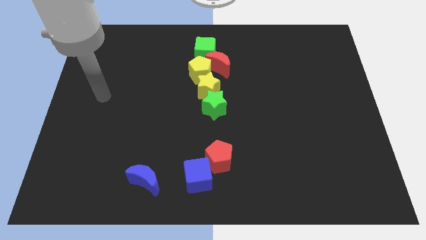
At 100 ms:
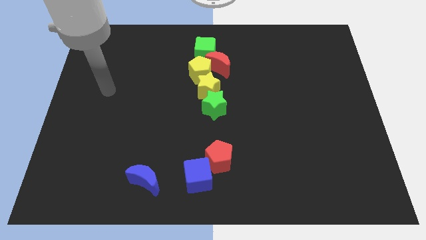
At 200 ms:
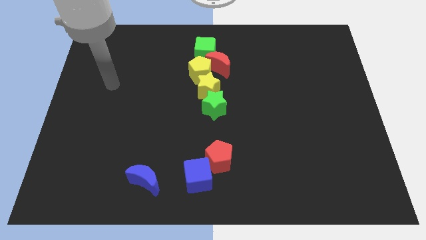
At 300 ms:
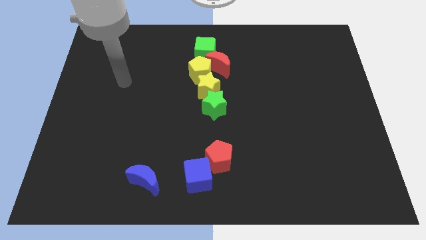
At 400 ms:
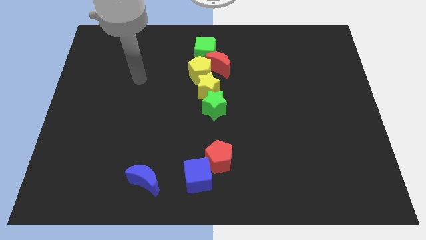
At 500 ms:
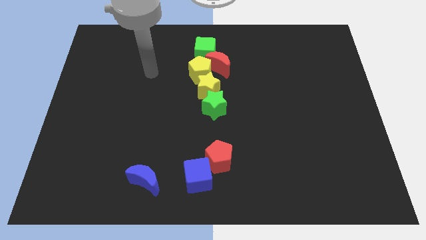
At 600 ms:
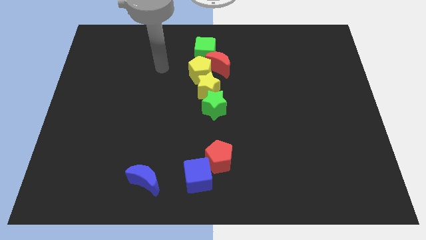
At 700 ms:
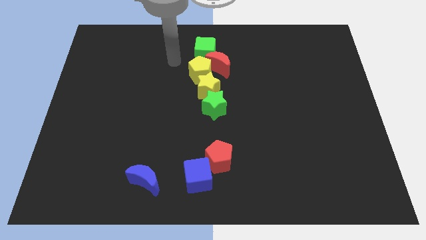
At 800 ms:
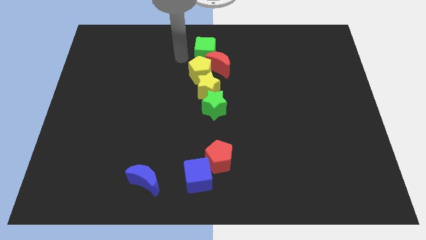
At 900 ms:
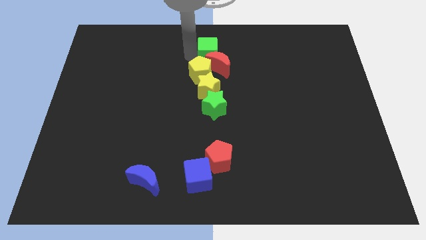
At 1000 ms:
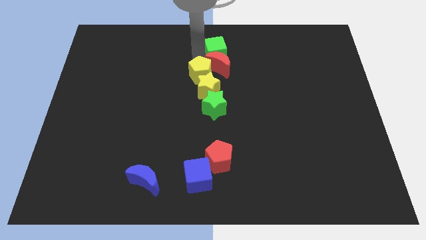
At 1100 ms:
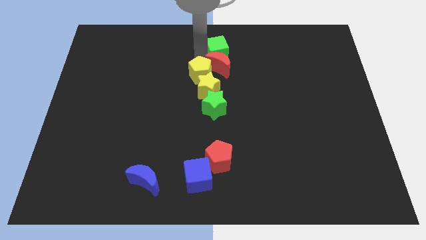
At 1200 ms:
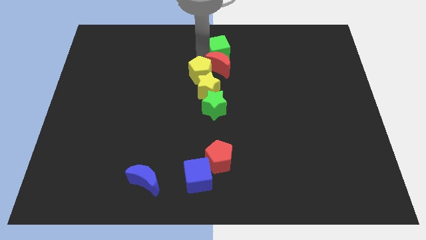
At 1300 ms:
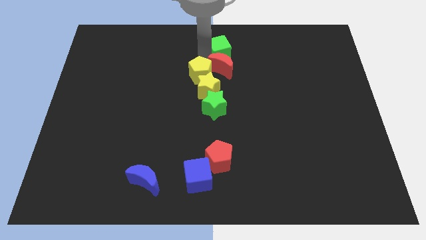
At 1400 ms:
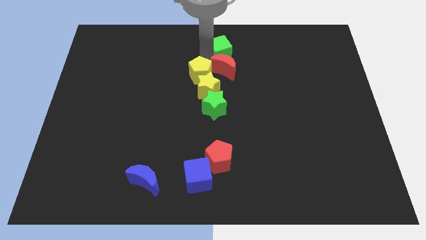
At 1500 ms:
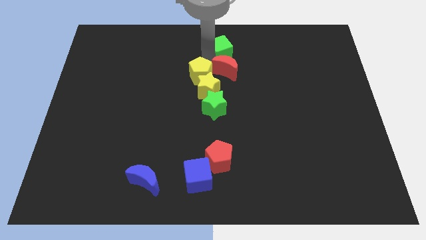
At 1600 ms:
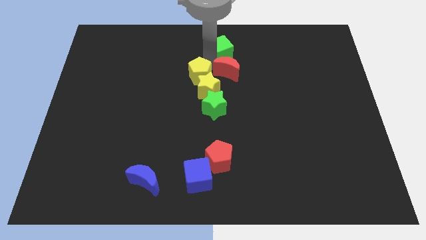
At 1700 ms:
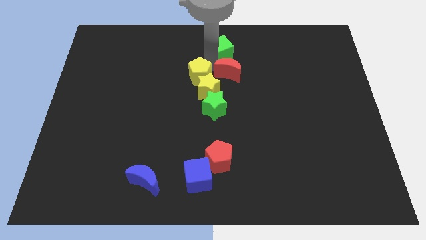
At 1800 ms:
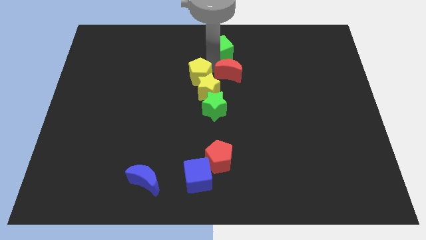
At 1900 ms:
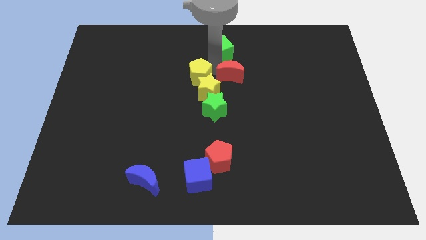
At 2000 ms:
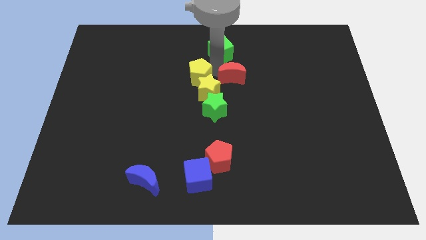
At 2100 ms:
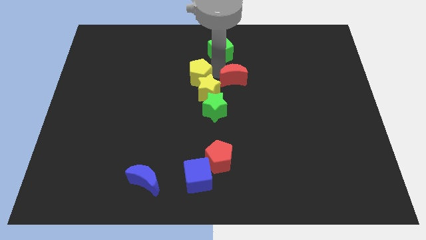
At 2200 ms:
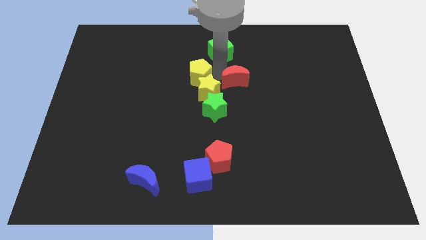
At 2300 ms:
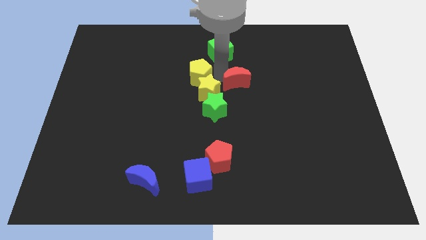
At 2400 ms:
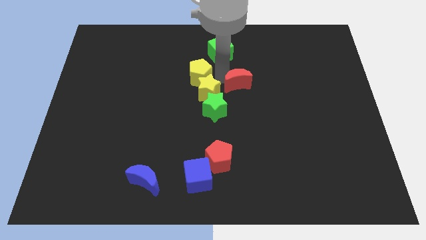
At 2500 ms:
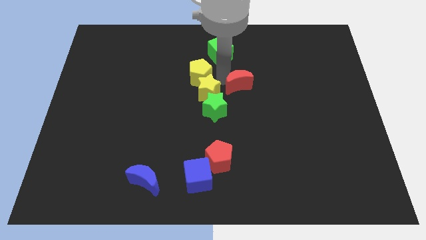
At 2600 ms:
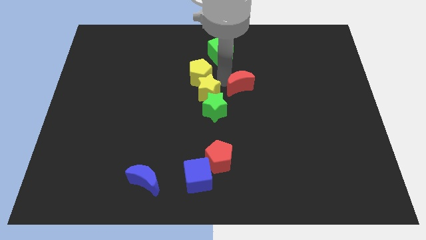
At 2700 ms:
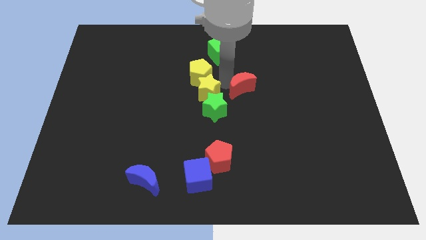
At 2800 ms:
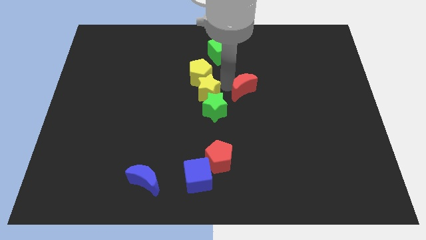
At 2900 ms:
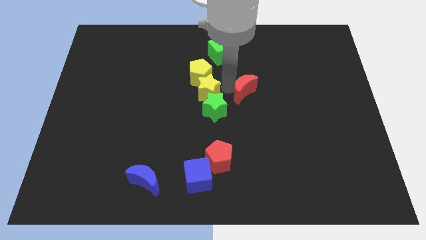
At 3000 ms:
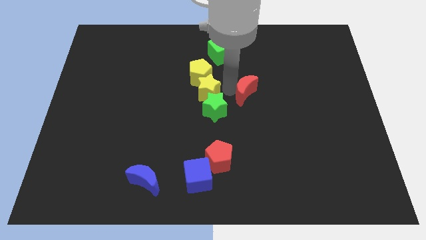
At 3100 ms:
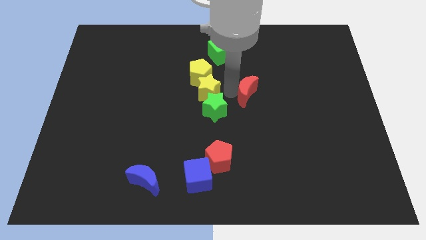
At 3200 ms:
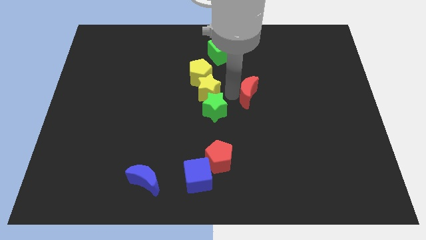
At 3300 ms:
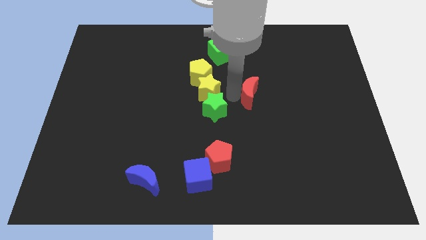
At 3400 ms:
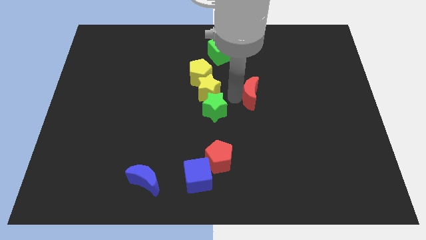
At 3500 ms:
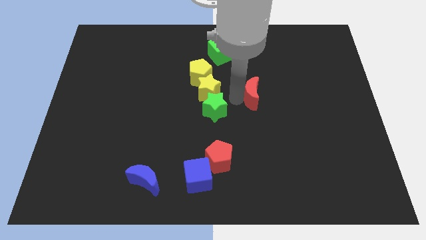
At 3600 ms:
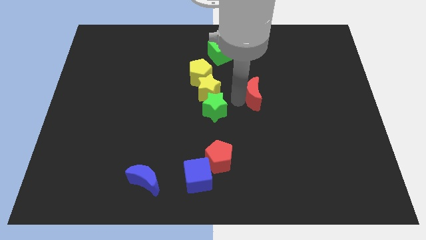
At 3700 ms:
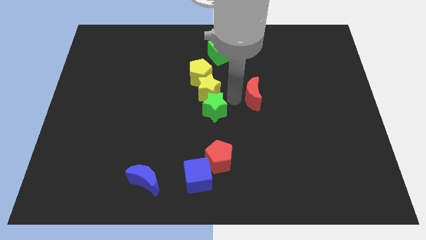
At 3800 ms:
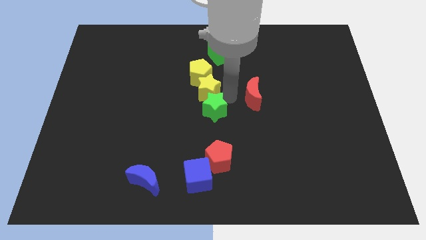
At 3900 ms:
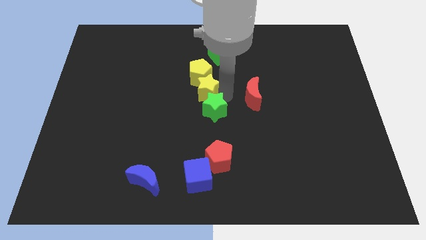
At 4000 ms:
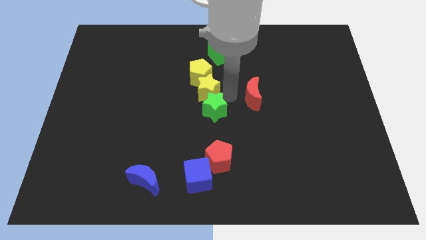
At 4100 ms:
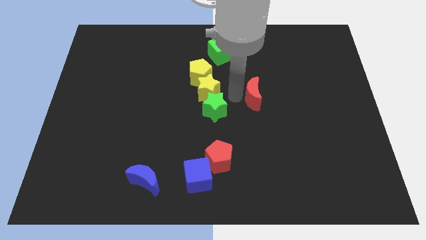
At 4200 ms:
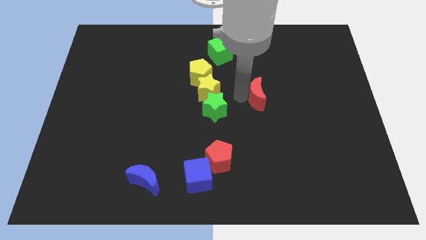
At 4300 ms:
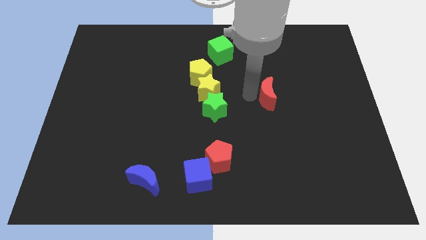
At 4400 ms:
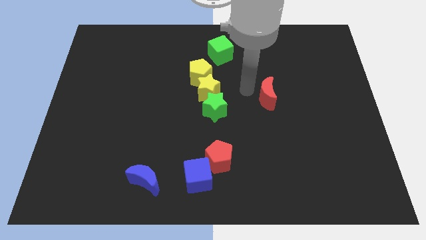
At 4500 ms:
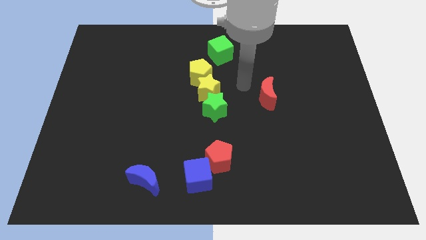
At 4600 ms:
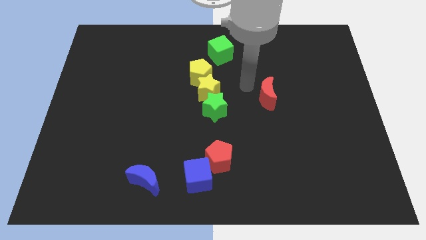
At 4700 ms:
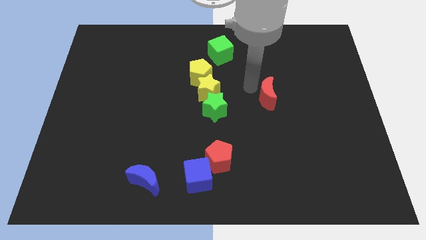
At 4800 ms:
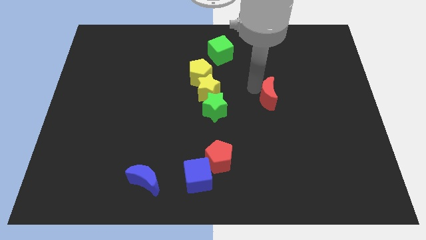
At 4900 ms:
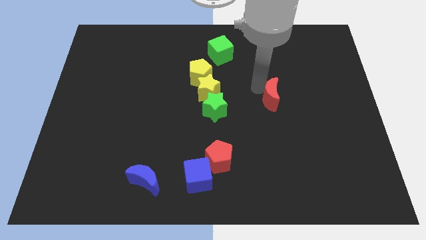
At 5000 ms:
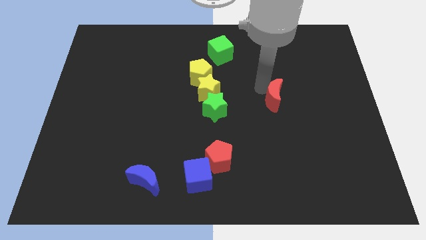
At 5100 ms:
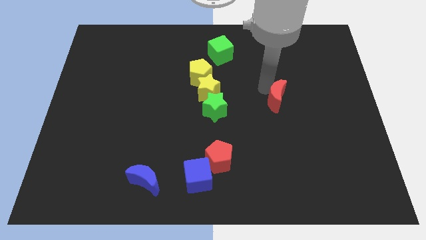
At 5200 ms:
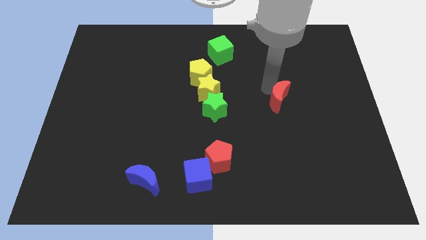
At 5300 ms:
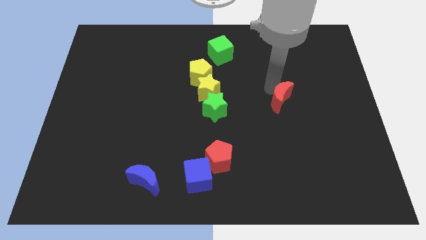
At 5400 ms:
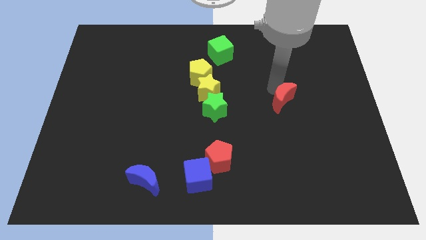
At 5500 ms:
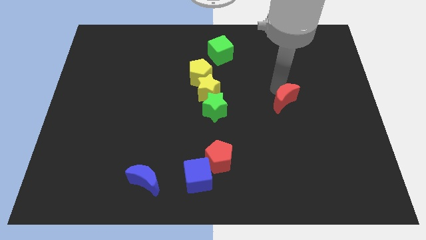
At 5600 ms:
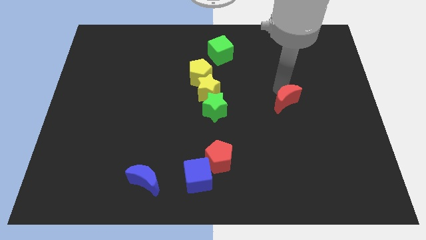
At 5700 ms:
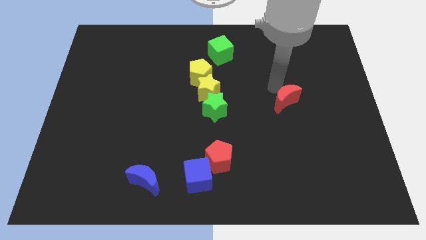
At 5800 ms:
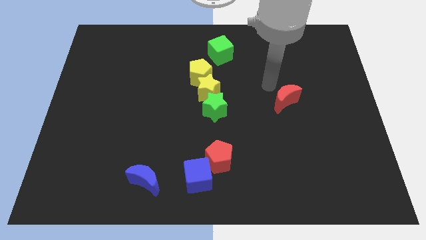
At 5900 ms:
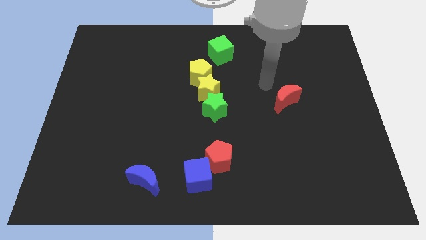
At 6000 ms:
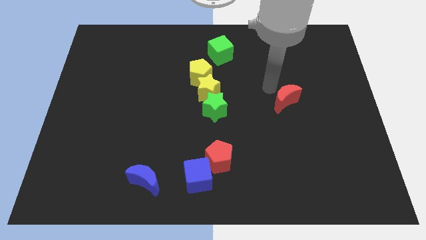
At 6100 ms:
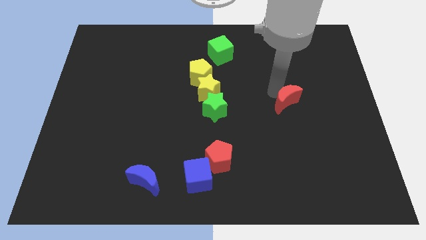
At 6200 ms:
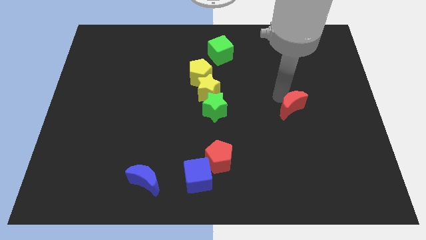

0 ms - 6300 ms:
slide the red moon diagonally down and right

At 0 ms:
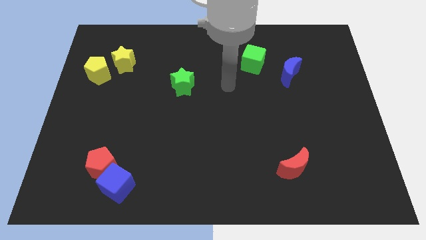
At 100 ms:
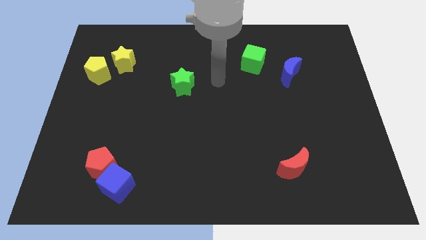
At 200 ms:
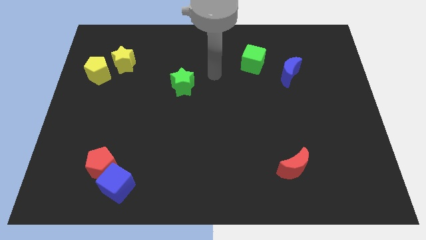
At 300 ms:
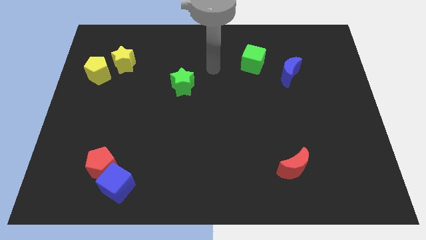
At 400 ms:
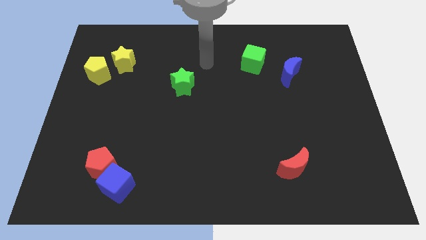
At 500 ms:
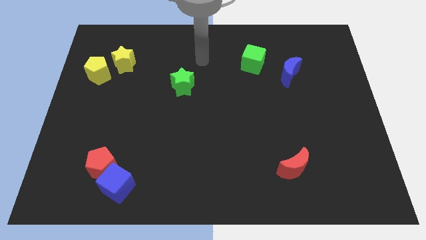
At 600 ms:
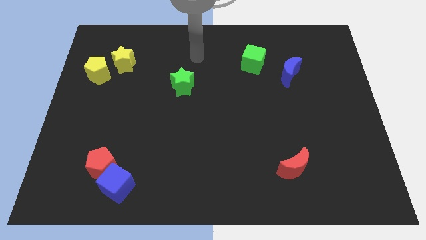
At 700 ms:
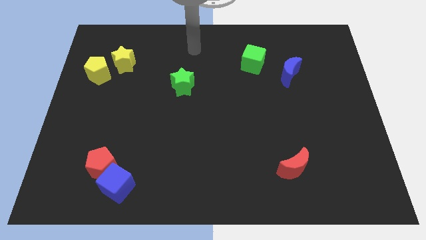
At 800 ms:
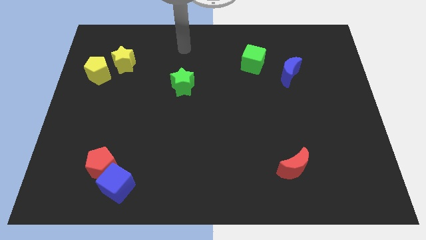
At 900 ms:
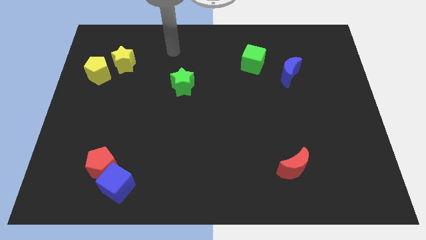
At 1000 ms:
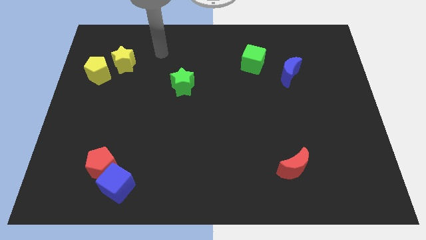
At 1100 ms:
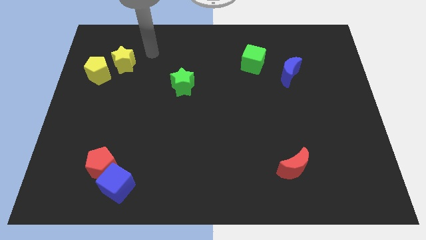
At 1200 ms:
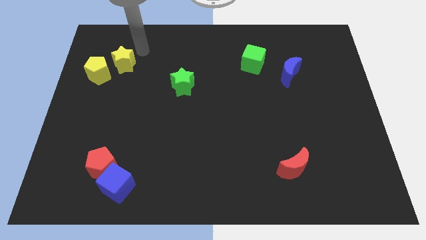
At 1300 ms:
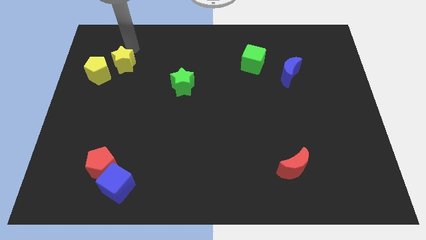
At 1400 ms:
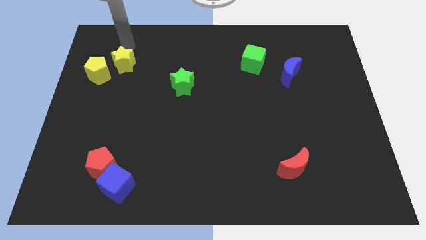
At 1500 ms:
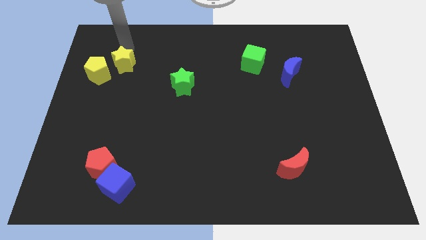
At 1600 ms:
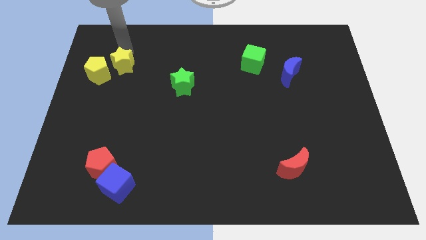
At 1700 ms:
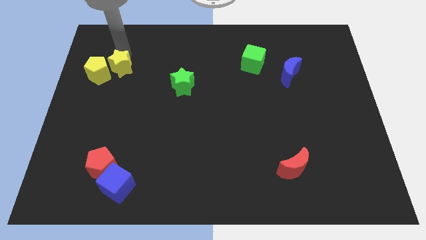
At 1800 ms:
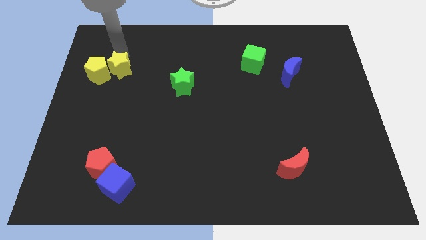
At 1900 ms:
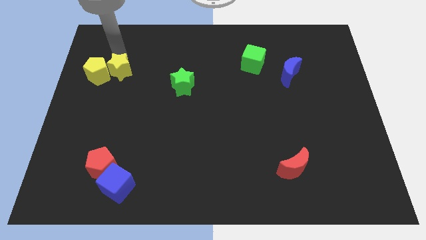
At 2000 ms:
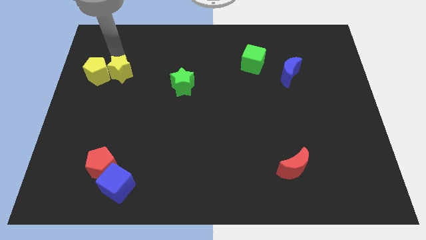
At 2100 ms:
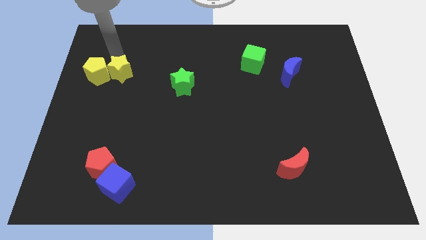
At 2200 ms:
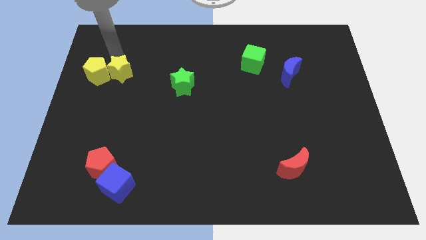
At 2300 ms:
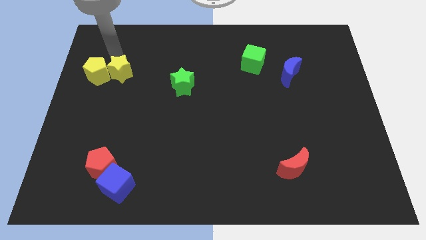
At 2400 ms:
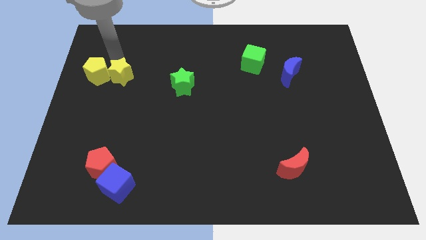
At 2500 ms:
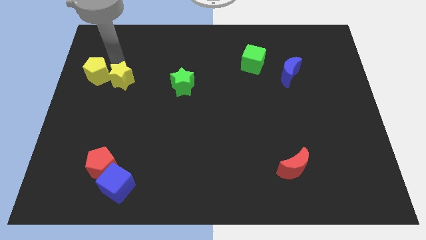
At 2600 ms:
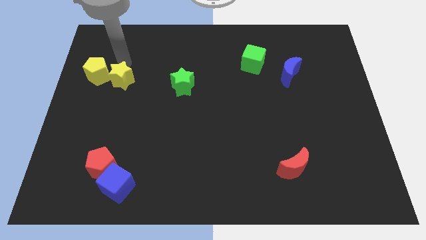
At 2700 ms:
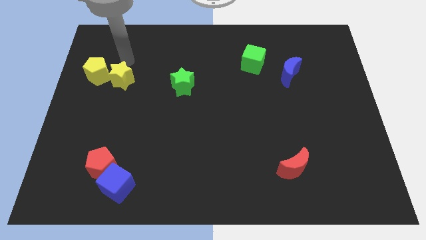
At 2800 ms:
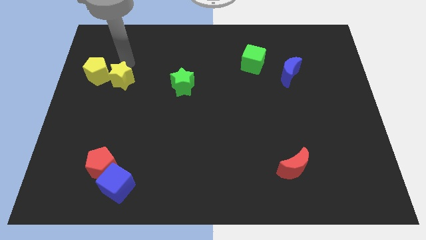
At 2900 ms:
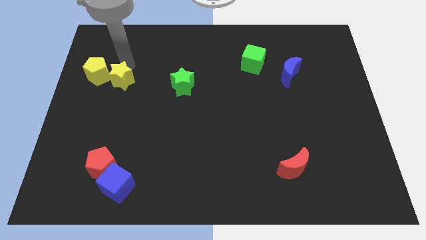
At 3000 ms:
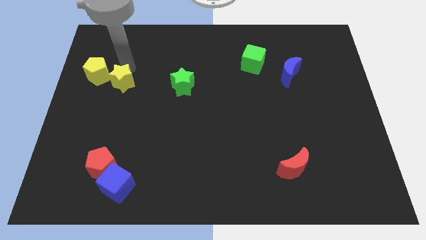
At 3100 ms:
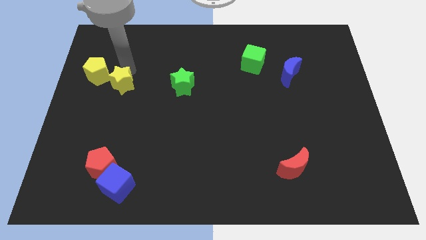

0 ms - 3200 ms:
slide the yellow star downwards slightly
